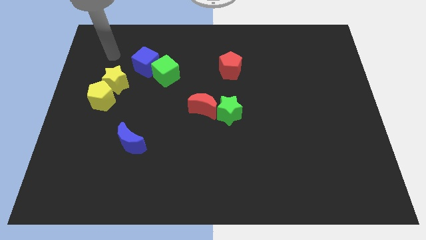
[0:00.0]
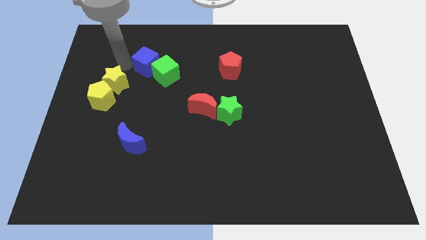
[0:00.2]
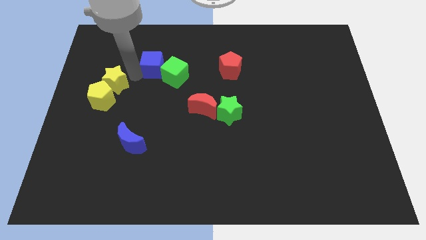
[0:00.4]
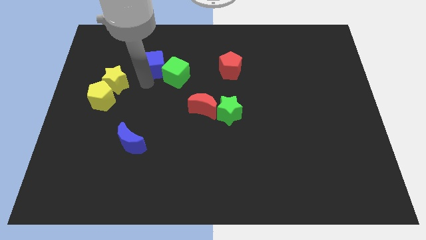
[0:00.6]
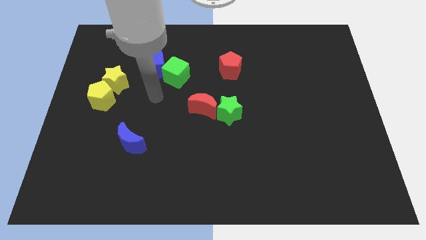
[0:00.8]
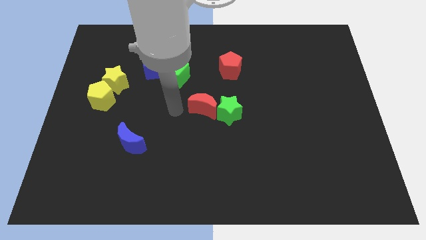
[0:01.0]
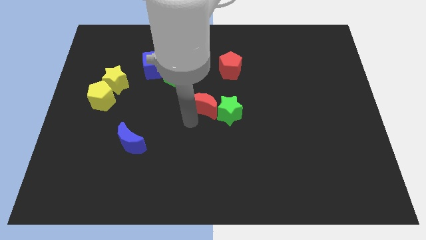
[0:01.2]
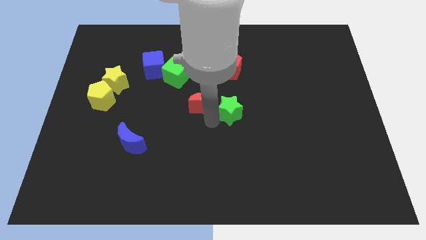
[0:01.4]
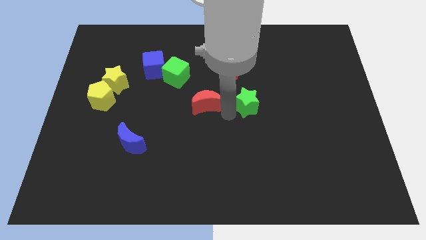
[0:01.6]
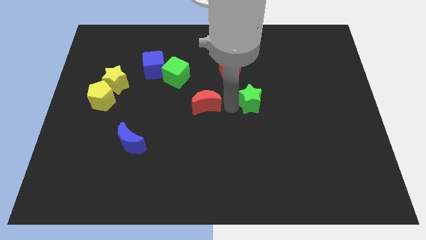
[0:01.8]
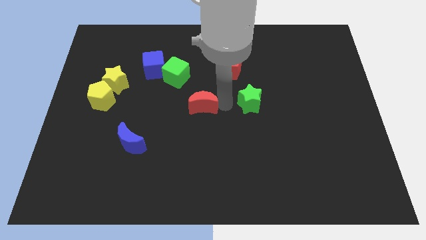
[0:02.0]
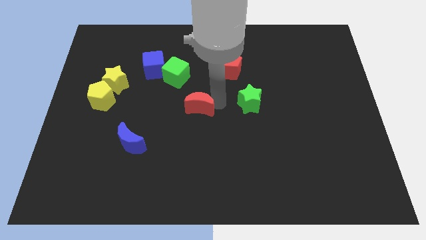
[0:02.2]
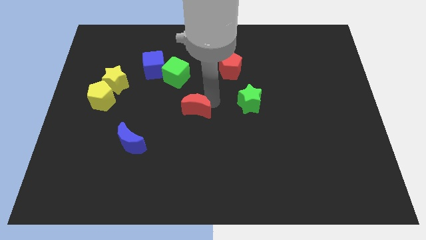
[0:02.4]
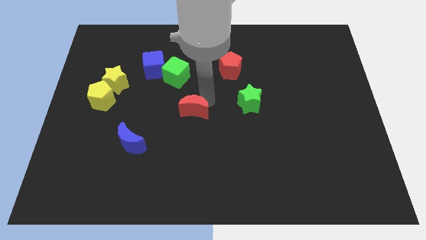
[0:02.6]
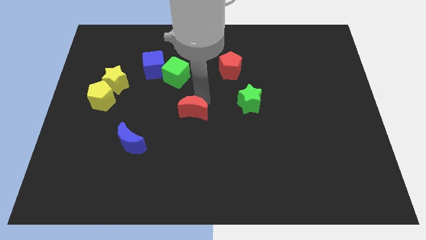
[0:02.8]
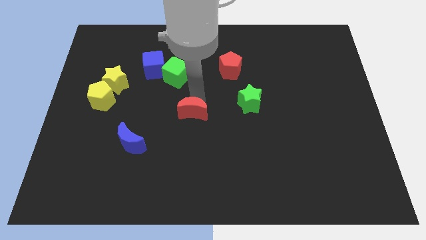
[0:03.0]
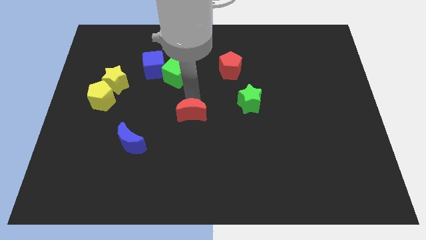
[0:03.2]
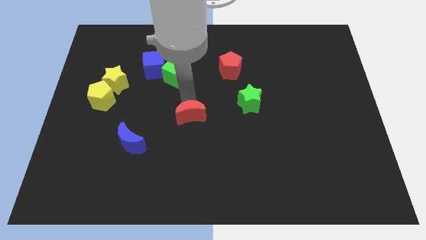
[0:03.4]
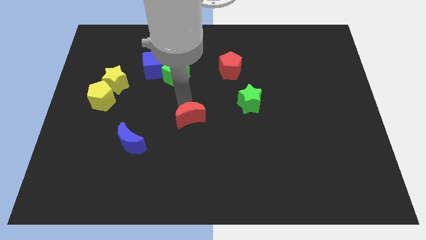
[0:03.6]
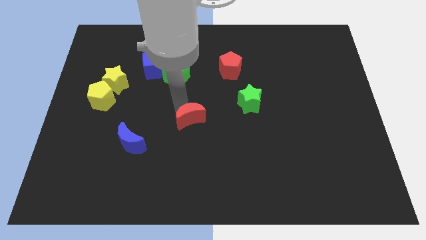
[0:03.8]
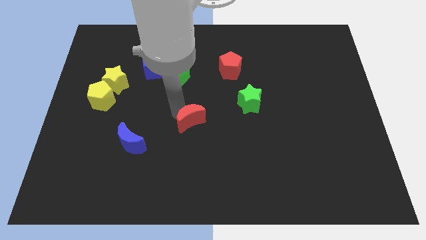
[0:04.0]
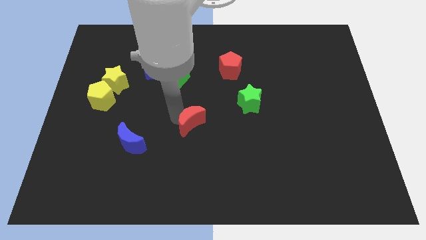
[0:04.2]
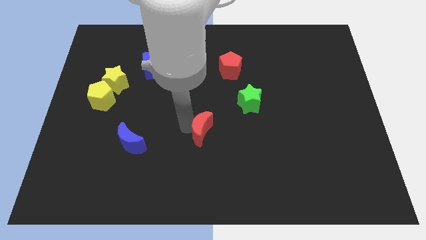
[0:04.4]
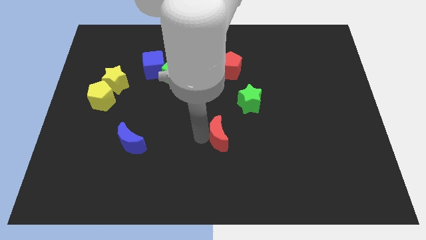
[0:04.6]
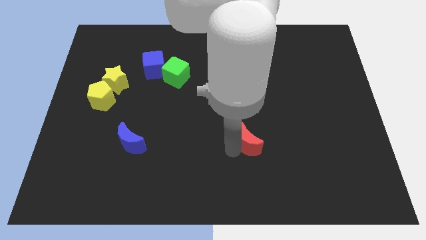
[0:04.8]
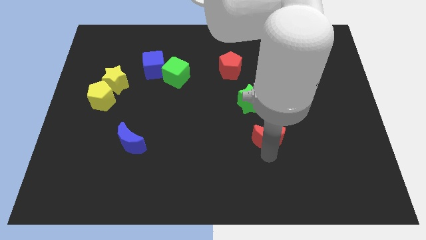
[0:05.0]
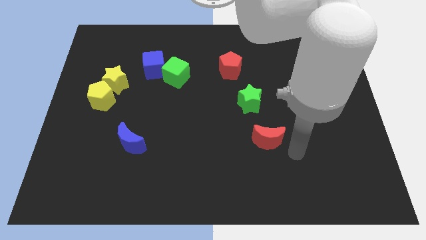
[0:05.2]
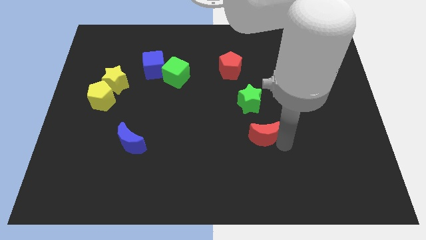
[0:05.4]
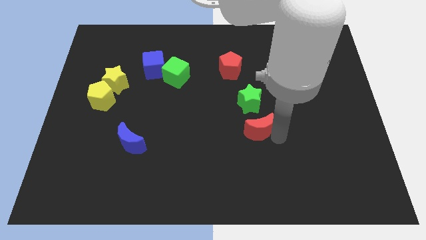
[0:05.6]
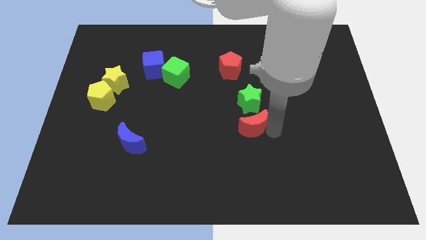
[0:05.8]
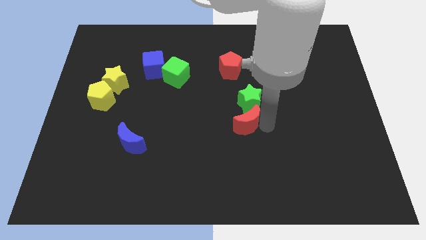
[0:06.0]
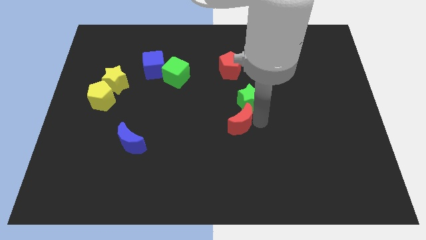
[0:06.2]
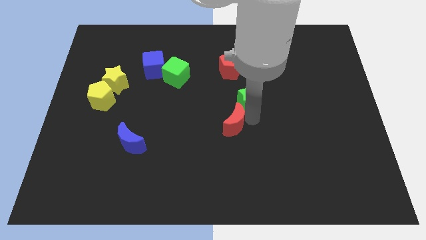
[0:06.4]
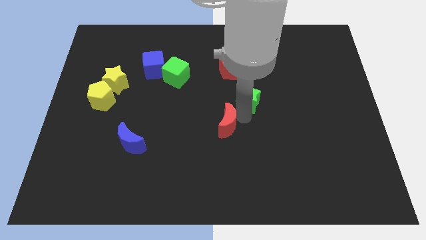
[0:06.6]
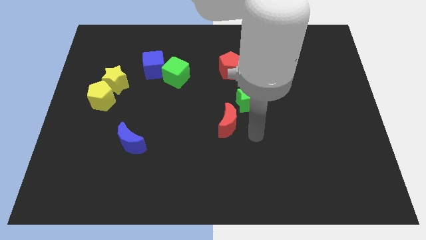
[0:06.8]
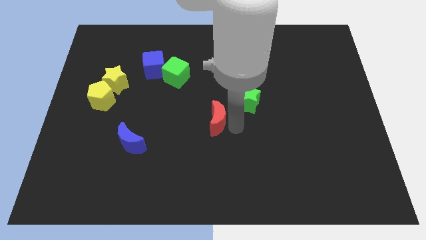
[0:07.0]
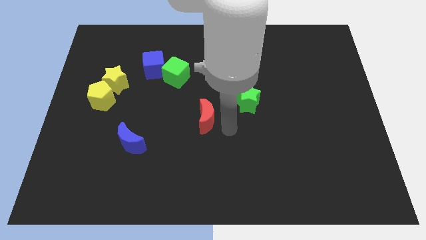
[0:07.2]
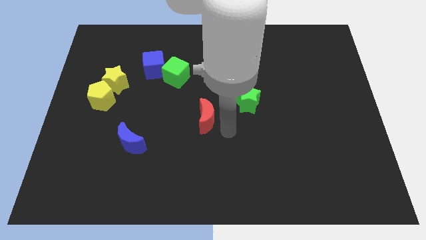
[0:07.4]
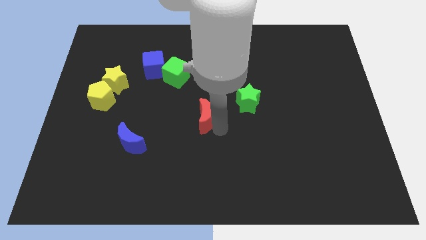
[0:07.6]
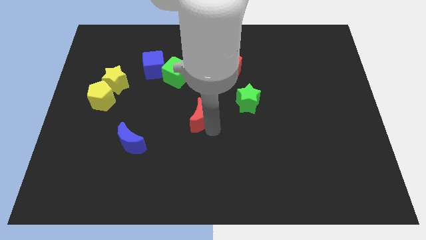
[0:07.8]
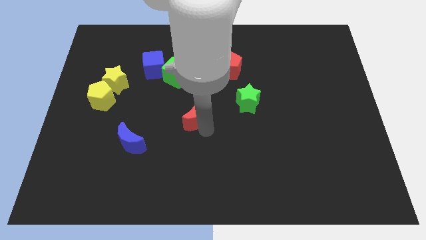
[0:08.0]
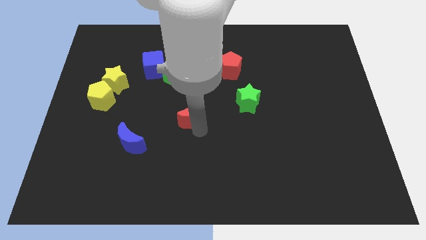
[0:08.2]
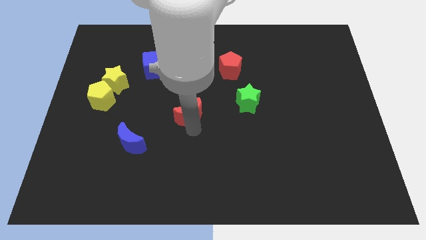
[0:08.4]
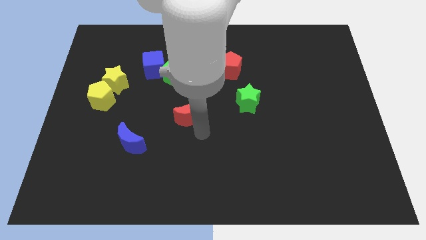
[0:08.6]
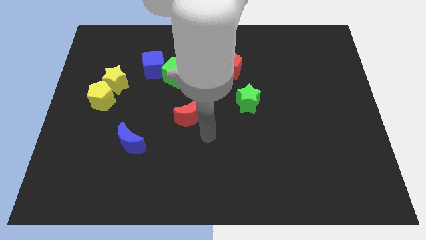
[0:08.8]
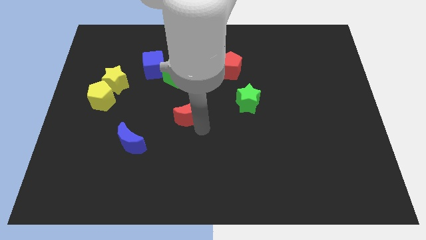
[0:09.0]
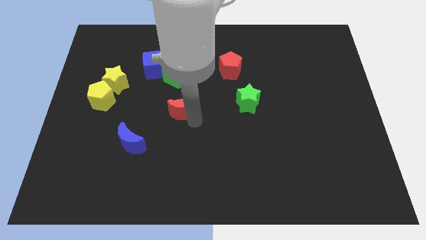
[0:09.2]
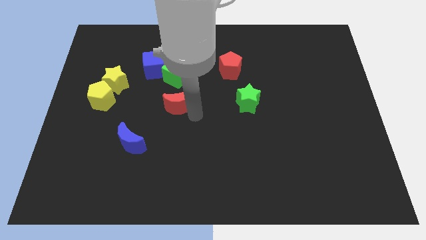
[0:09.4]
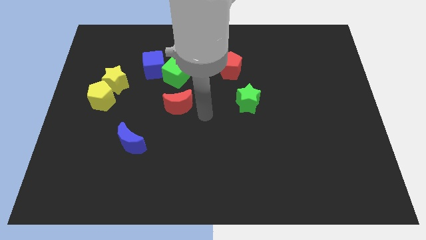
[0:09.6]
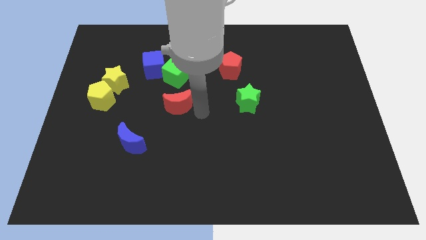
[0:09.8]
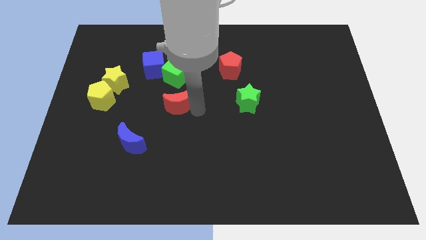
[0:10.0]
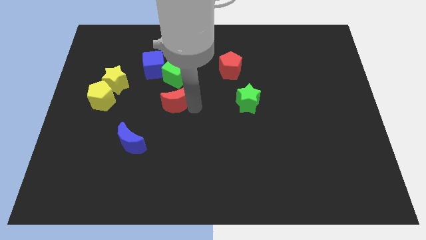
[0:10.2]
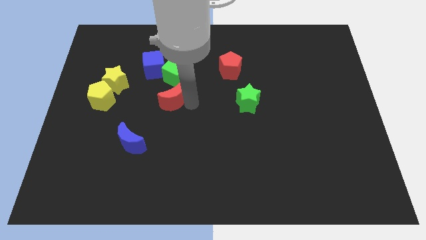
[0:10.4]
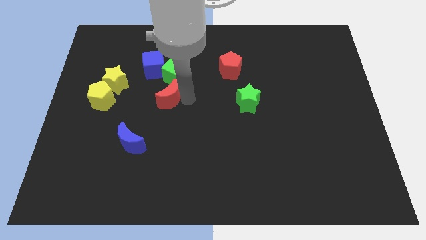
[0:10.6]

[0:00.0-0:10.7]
push the red moon to the bottom of the blue cube

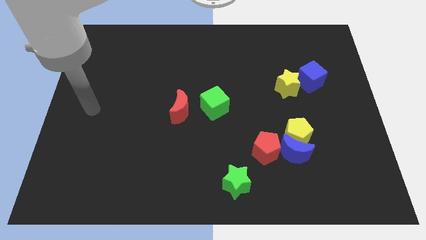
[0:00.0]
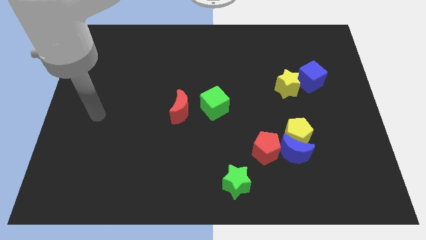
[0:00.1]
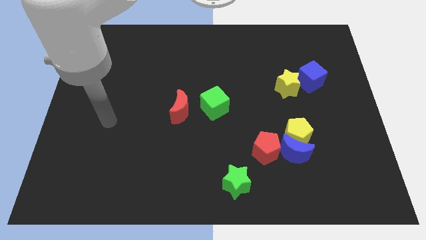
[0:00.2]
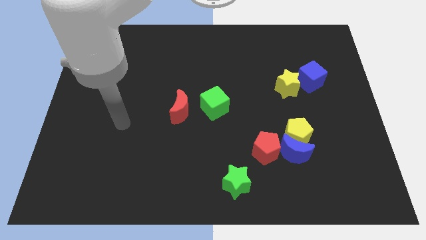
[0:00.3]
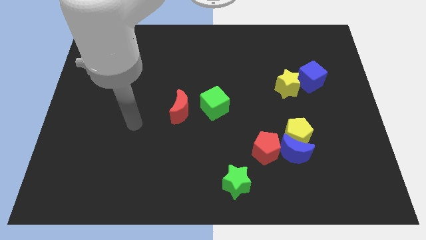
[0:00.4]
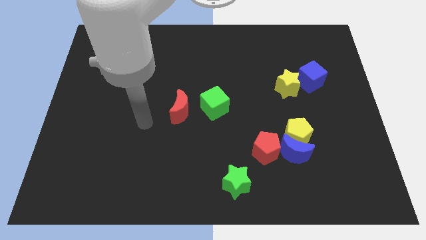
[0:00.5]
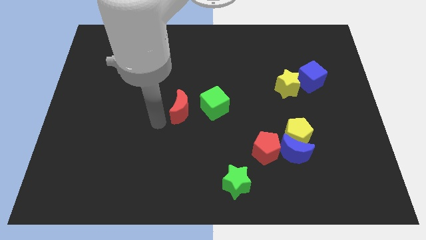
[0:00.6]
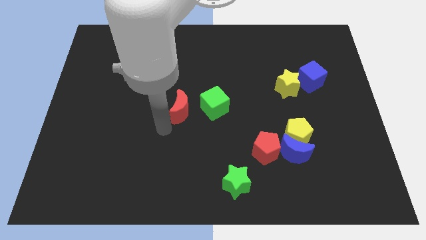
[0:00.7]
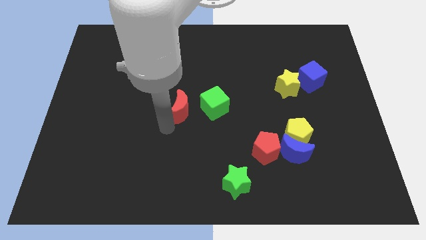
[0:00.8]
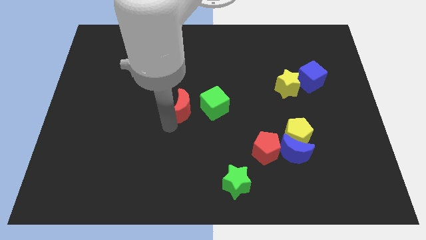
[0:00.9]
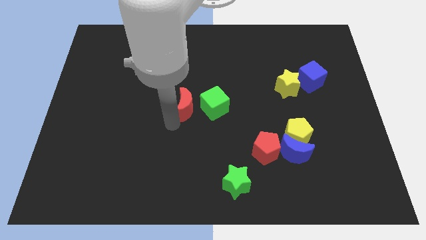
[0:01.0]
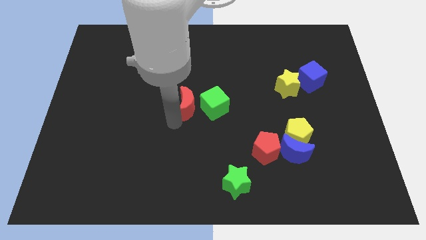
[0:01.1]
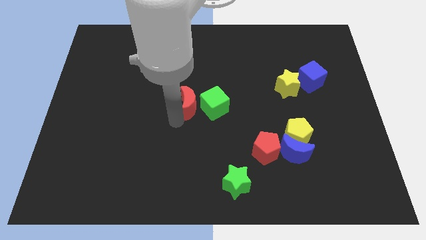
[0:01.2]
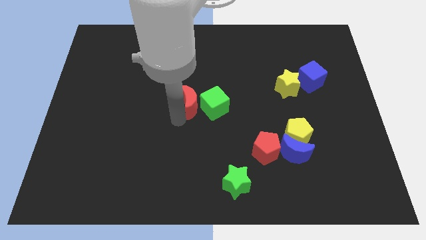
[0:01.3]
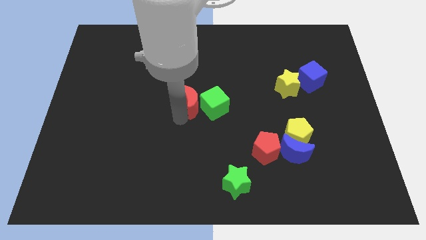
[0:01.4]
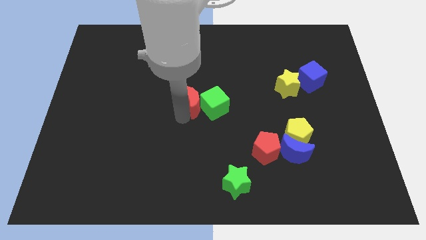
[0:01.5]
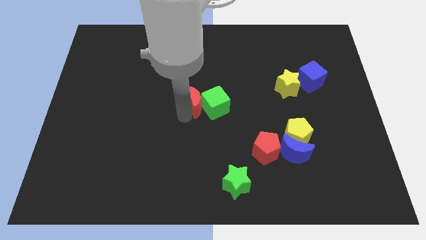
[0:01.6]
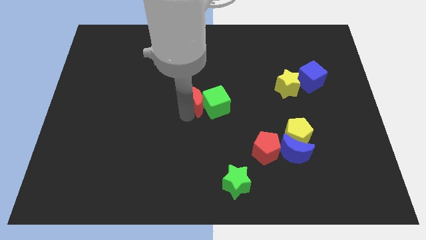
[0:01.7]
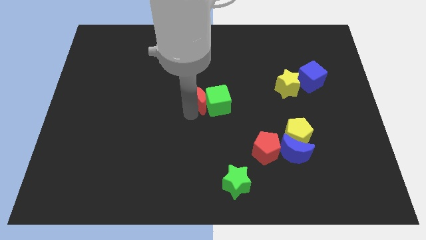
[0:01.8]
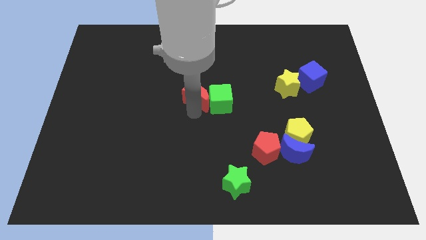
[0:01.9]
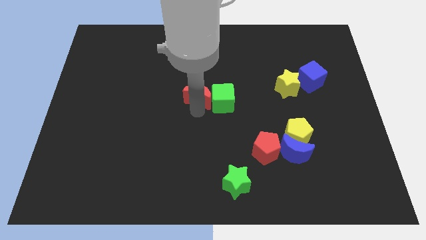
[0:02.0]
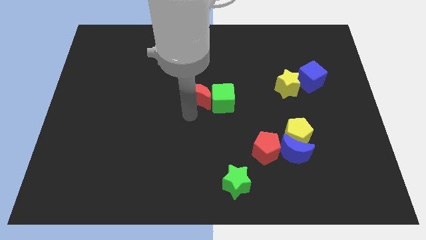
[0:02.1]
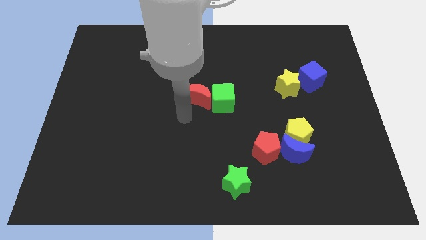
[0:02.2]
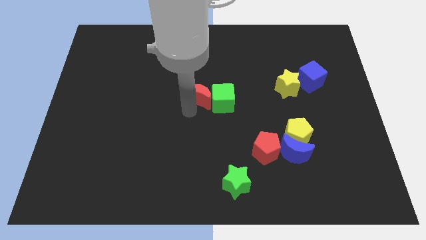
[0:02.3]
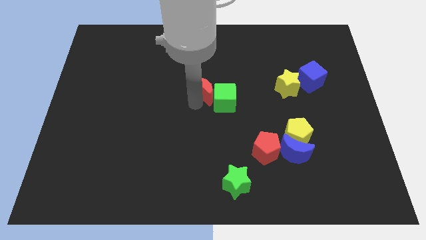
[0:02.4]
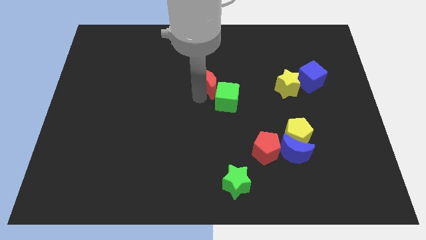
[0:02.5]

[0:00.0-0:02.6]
push the red moon to the top side of the green cube
